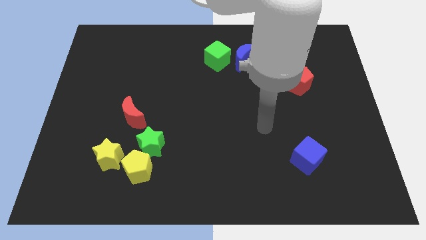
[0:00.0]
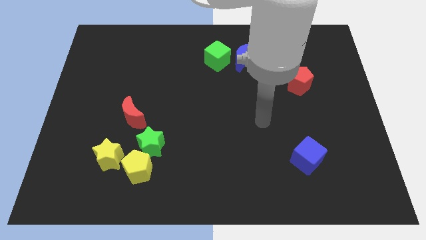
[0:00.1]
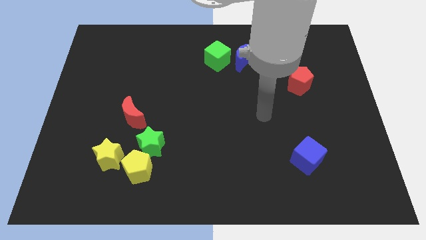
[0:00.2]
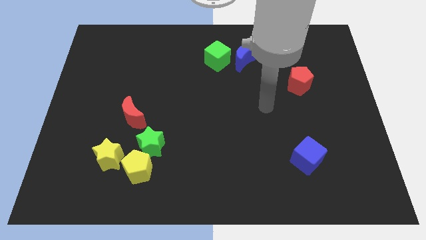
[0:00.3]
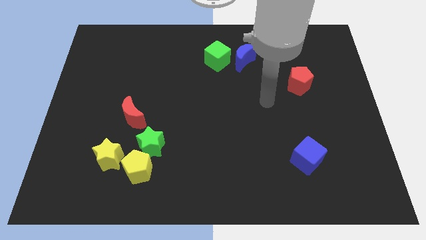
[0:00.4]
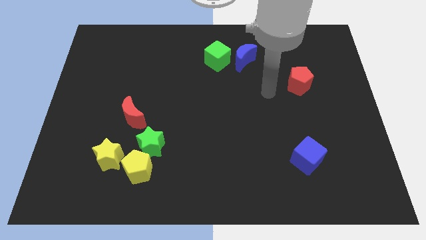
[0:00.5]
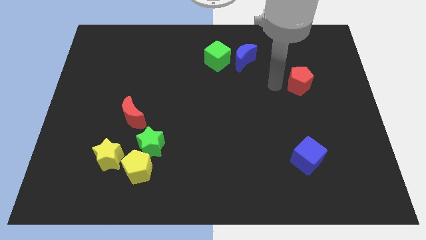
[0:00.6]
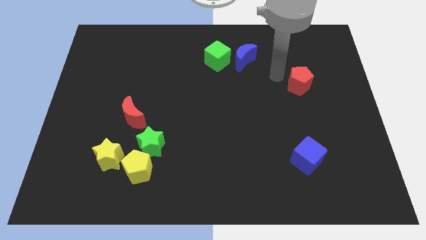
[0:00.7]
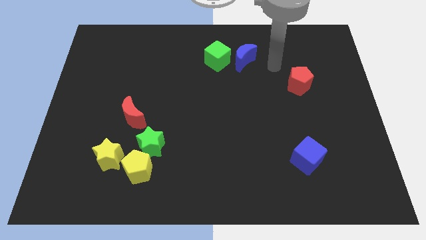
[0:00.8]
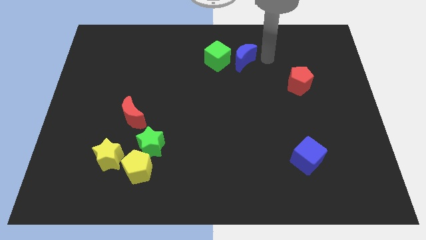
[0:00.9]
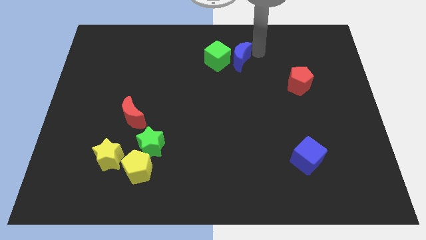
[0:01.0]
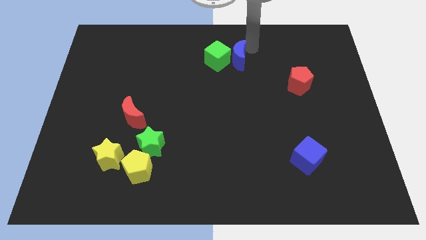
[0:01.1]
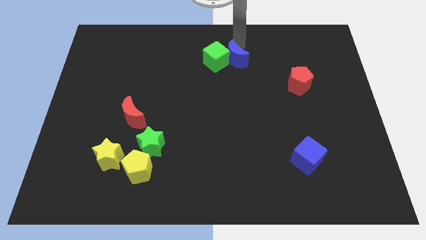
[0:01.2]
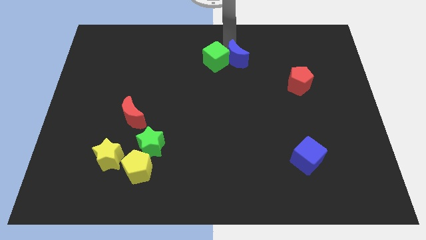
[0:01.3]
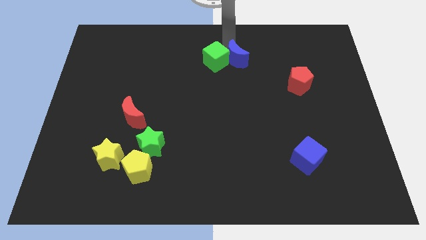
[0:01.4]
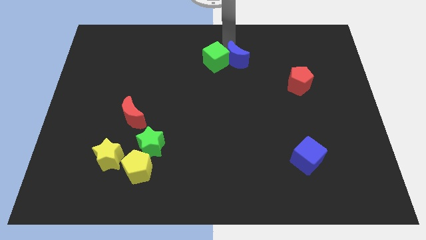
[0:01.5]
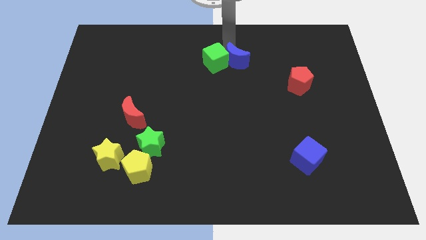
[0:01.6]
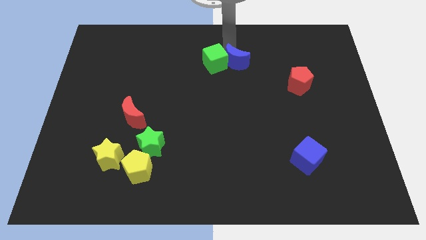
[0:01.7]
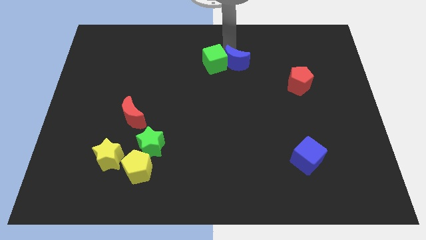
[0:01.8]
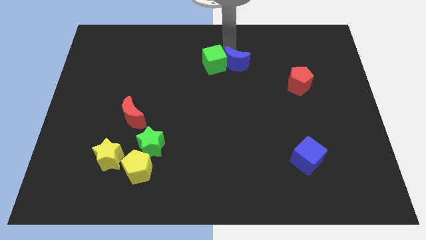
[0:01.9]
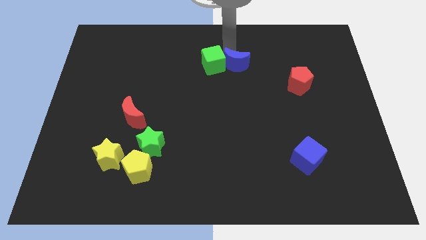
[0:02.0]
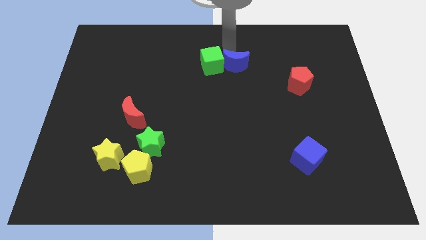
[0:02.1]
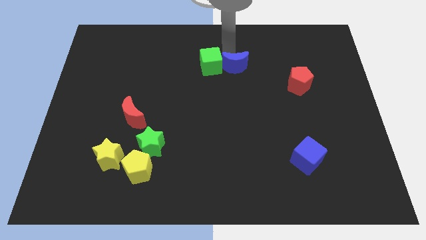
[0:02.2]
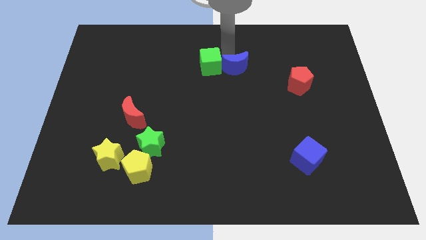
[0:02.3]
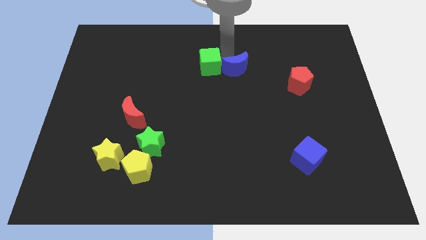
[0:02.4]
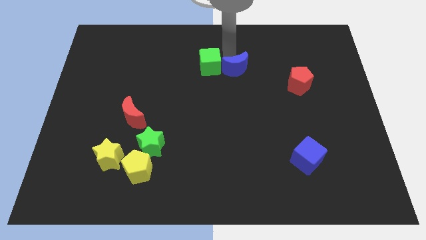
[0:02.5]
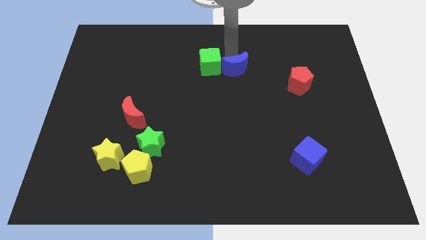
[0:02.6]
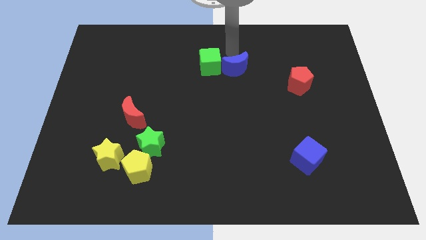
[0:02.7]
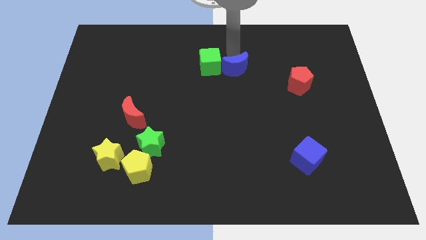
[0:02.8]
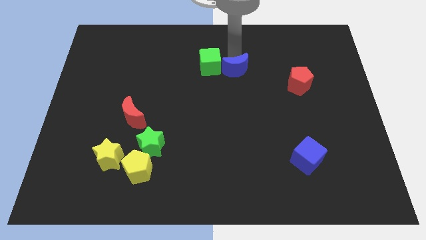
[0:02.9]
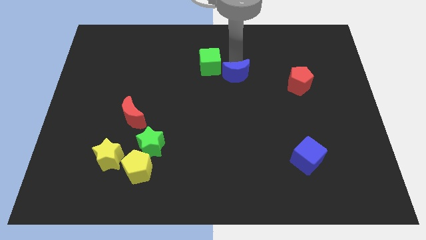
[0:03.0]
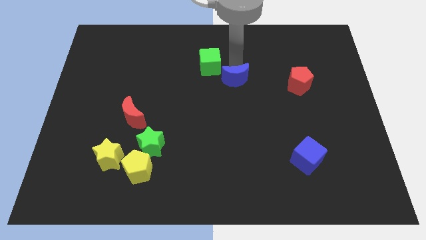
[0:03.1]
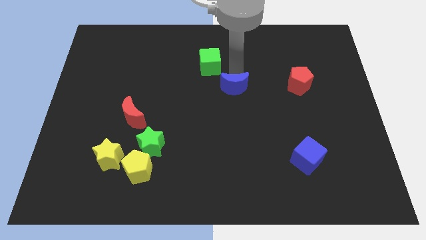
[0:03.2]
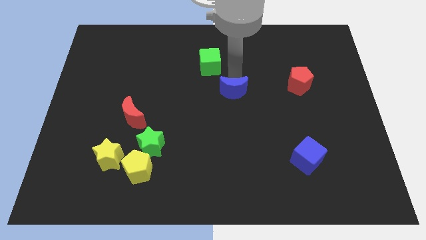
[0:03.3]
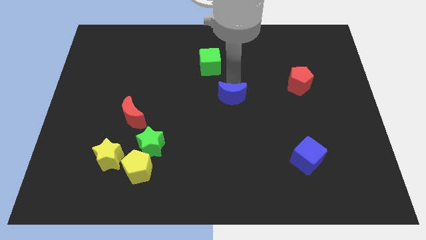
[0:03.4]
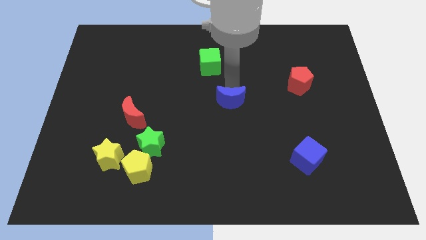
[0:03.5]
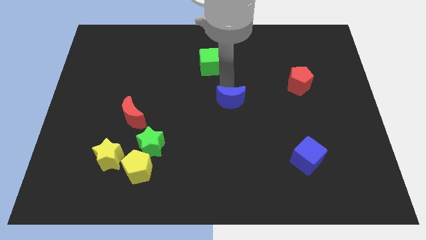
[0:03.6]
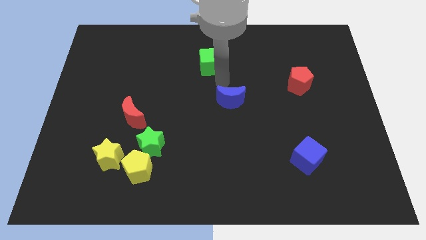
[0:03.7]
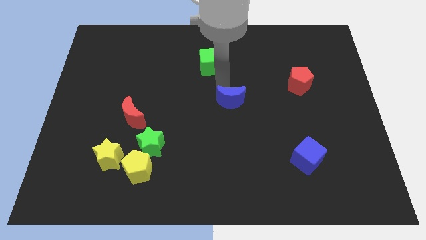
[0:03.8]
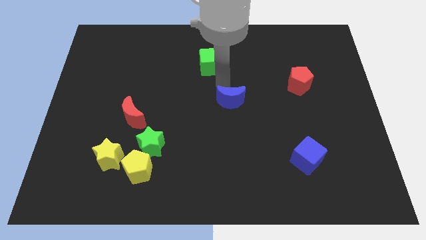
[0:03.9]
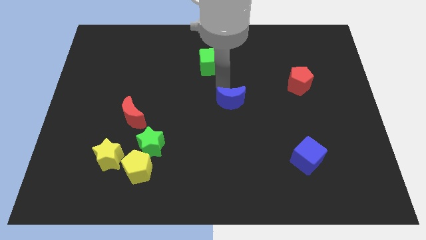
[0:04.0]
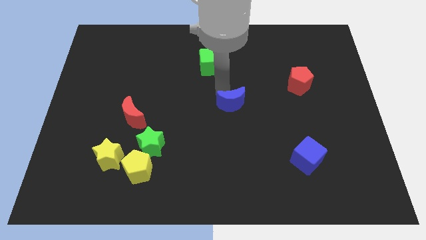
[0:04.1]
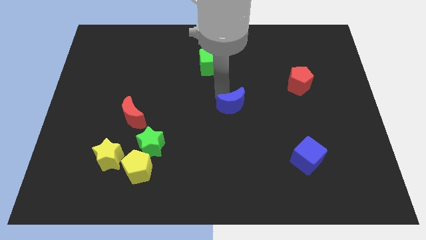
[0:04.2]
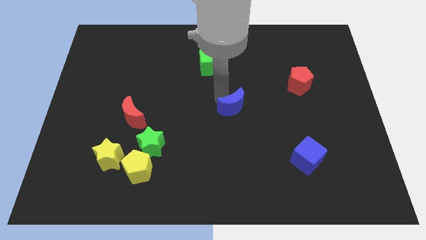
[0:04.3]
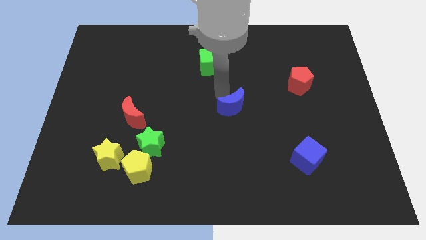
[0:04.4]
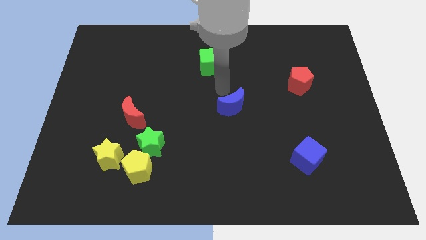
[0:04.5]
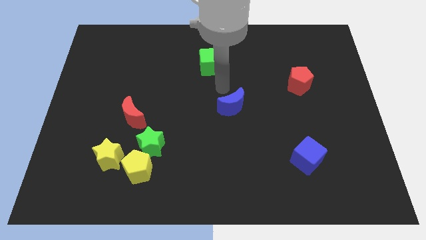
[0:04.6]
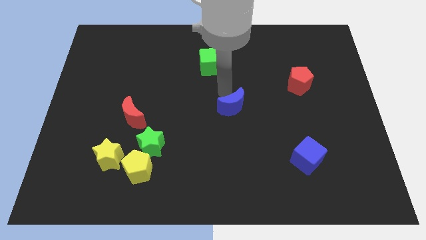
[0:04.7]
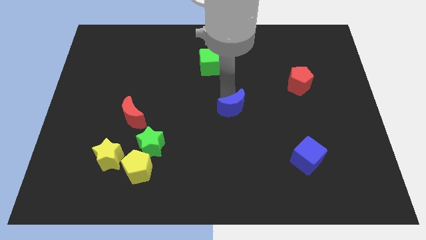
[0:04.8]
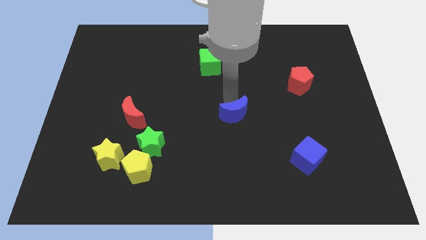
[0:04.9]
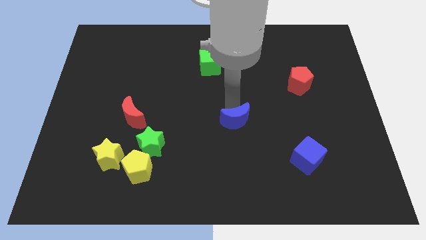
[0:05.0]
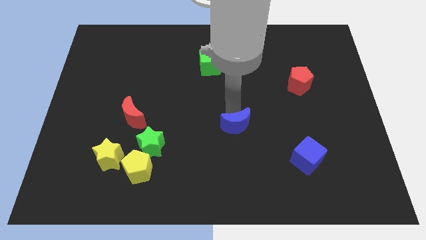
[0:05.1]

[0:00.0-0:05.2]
move the blue moon down

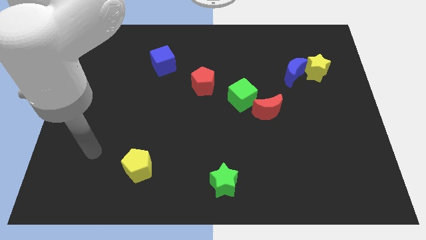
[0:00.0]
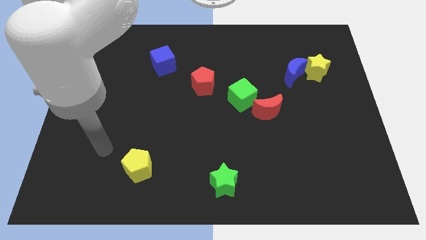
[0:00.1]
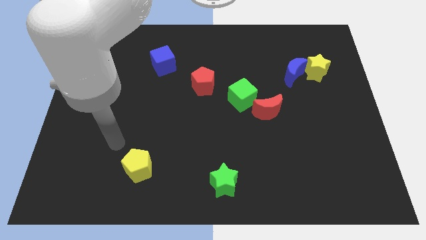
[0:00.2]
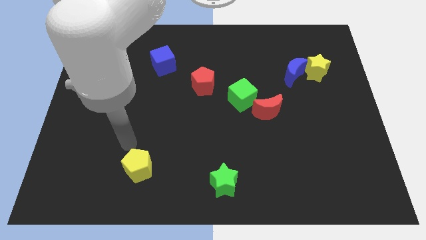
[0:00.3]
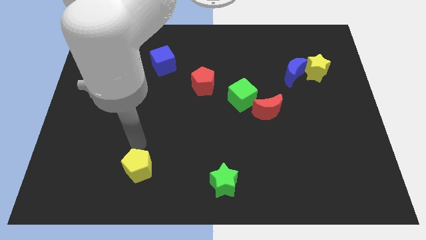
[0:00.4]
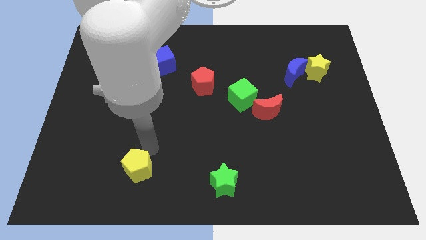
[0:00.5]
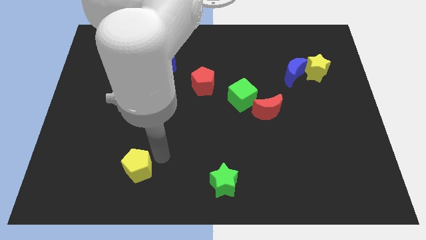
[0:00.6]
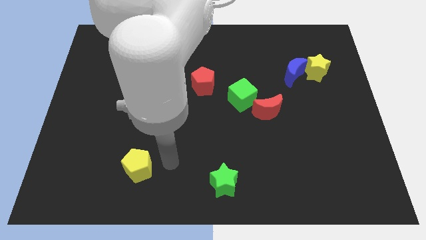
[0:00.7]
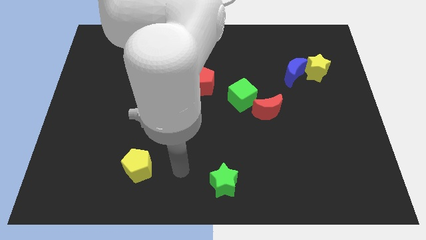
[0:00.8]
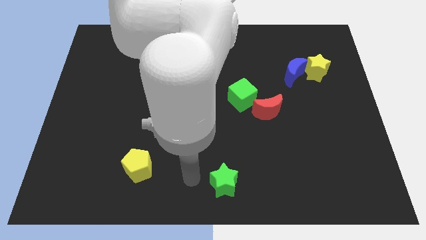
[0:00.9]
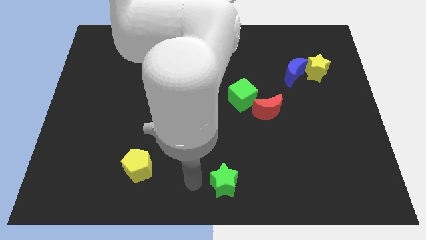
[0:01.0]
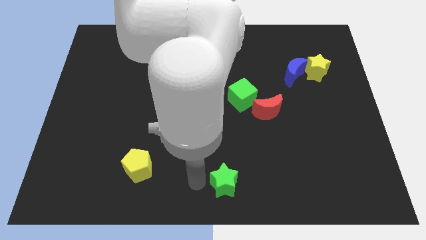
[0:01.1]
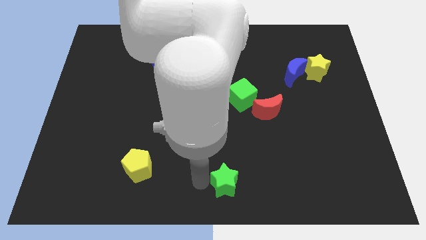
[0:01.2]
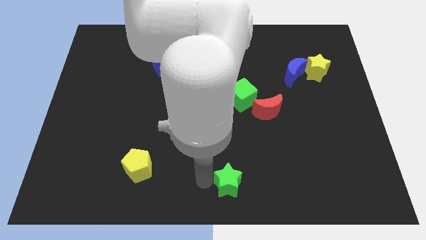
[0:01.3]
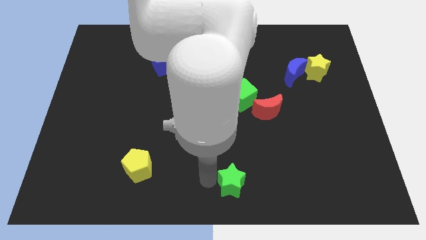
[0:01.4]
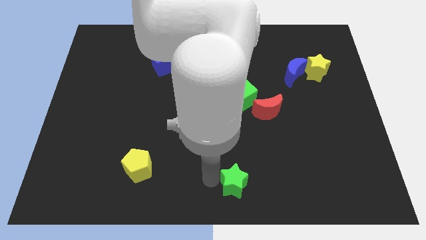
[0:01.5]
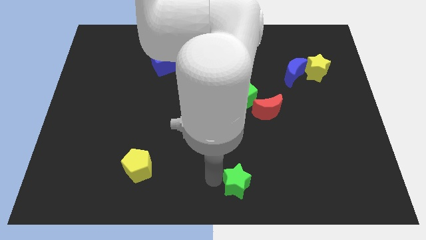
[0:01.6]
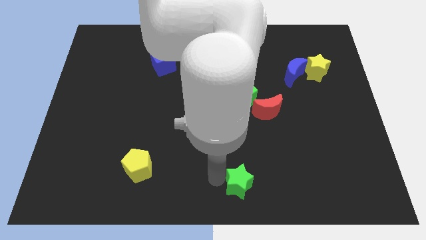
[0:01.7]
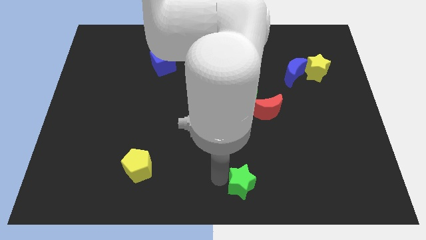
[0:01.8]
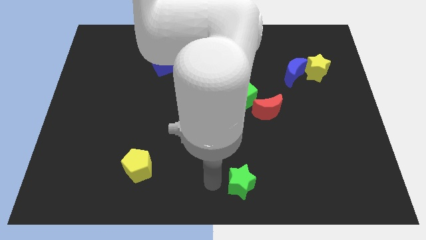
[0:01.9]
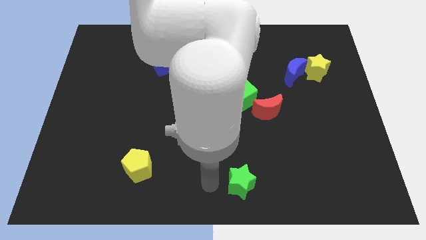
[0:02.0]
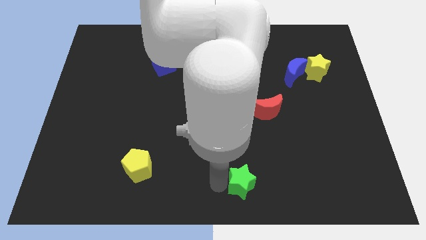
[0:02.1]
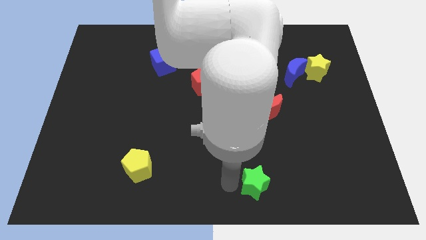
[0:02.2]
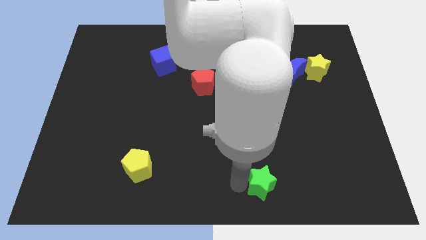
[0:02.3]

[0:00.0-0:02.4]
push the green star slightly to the right

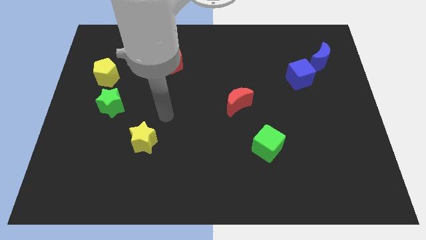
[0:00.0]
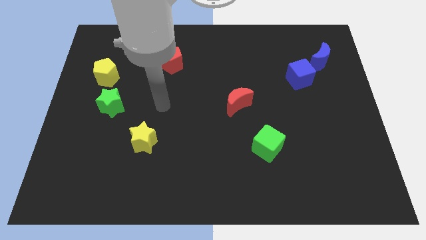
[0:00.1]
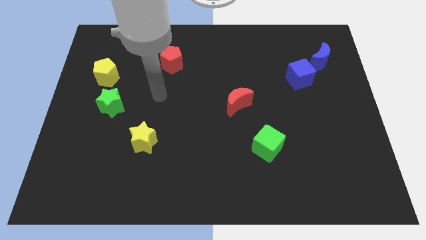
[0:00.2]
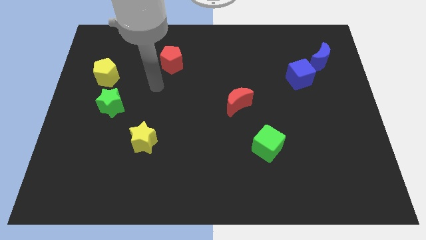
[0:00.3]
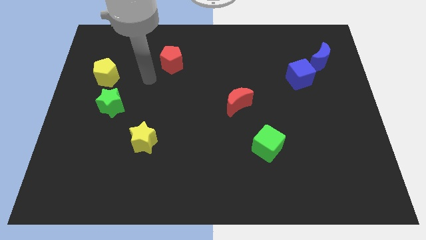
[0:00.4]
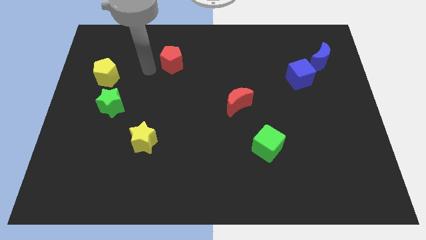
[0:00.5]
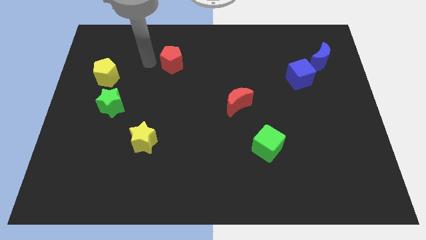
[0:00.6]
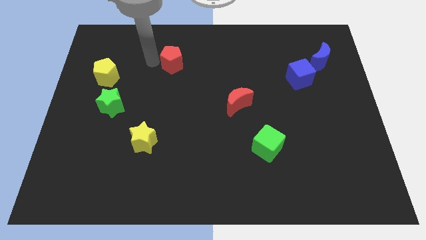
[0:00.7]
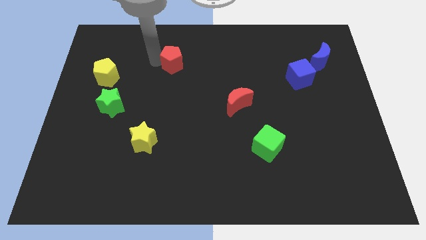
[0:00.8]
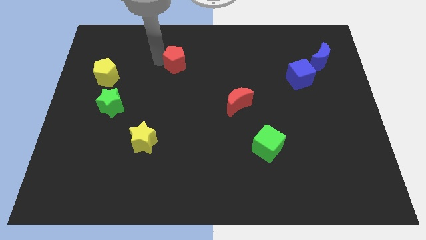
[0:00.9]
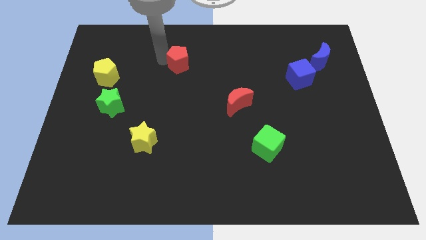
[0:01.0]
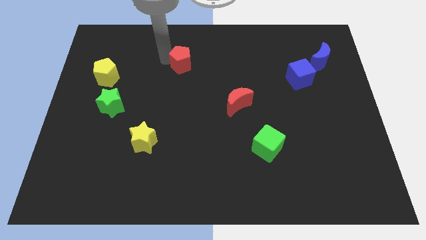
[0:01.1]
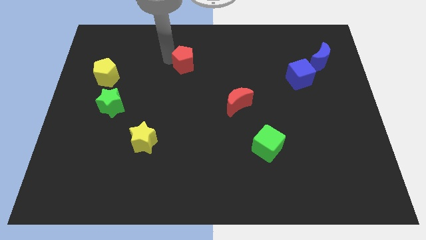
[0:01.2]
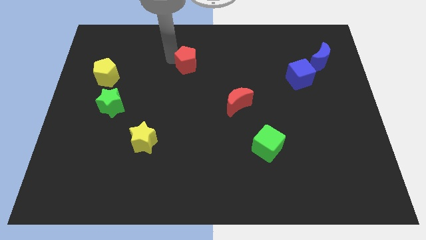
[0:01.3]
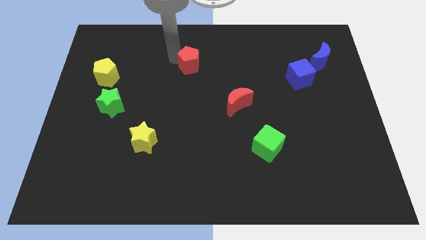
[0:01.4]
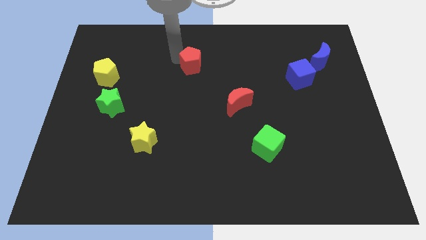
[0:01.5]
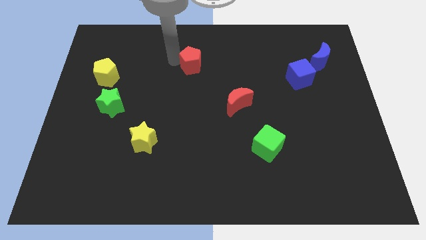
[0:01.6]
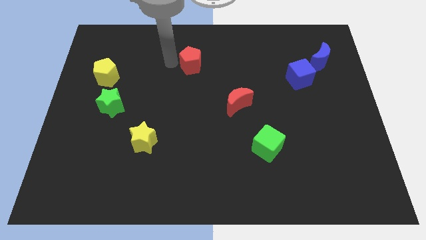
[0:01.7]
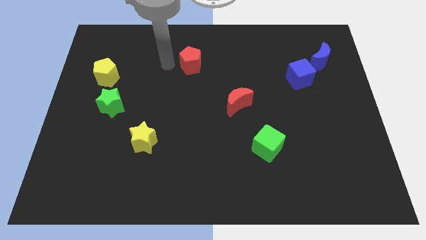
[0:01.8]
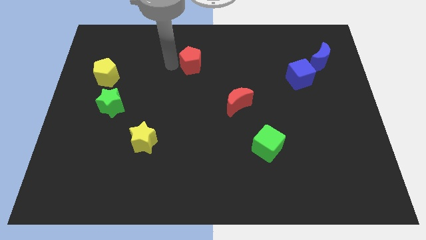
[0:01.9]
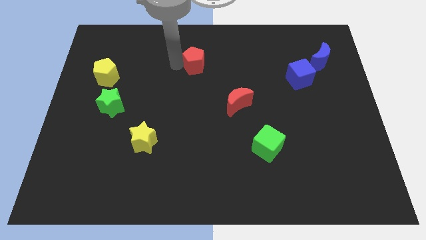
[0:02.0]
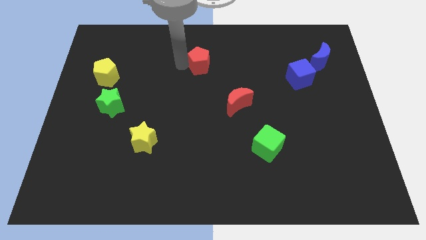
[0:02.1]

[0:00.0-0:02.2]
move the red pentagon somewhat right
